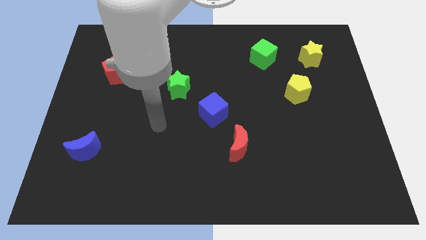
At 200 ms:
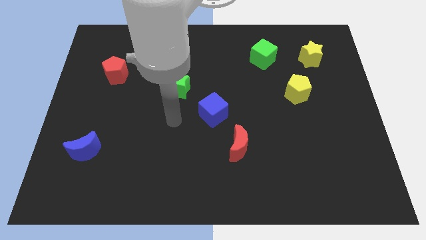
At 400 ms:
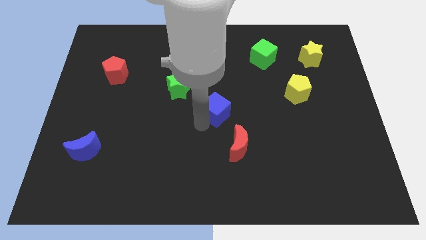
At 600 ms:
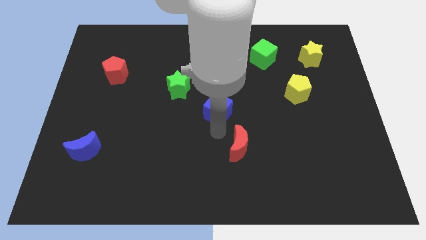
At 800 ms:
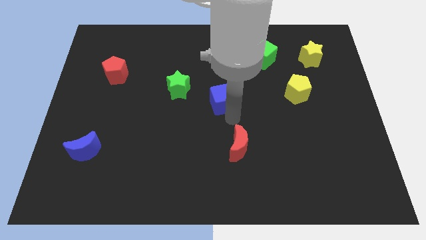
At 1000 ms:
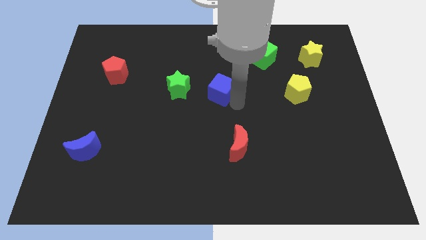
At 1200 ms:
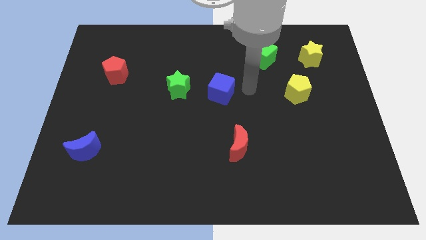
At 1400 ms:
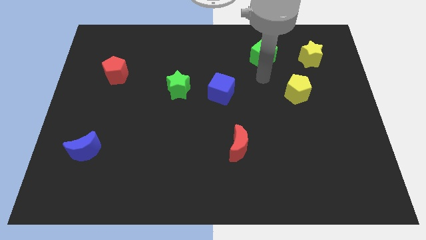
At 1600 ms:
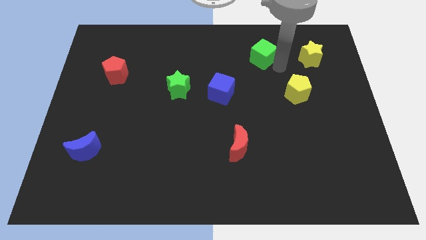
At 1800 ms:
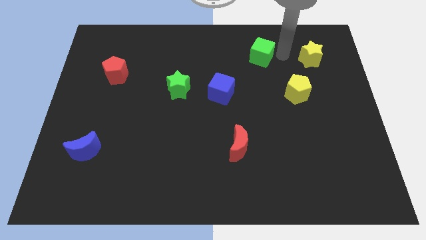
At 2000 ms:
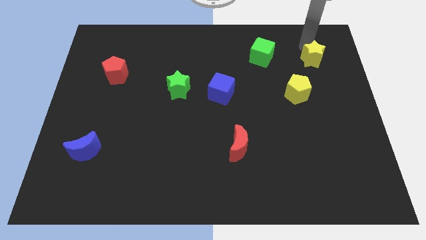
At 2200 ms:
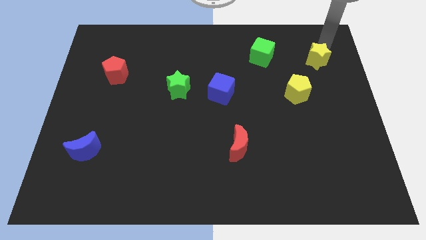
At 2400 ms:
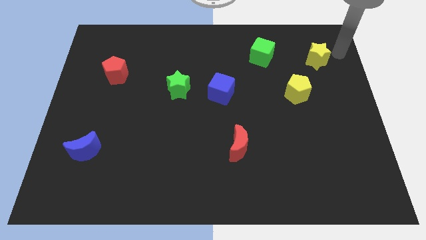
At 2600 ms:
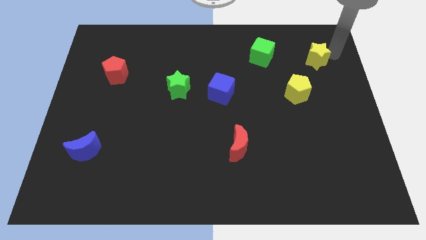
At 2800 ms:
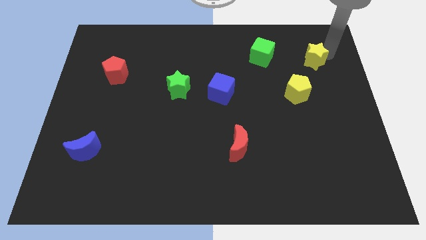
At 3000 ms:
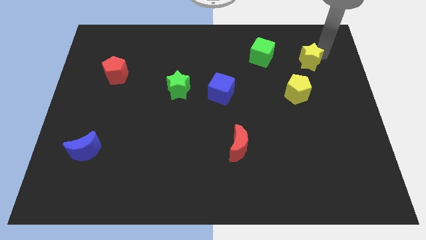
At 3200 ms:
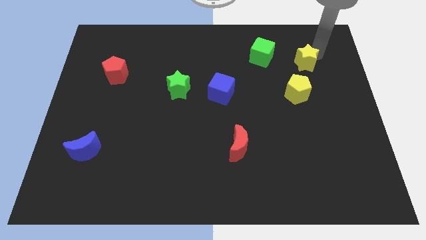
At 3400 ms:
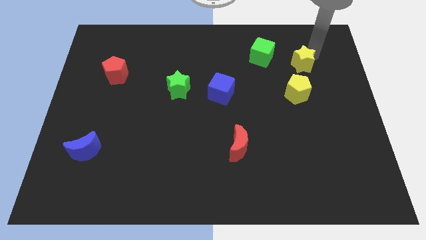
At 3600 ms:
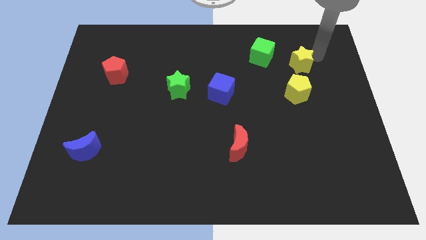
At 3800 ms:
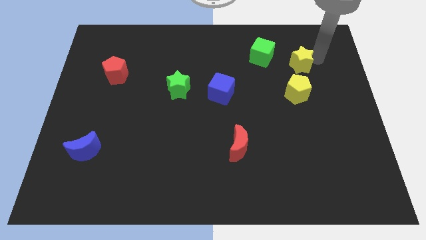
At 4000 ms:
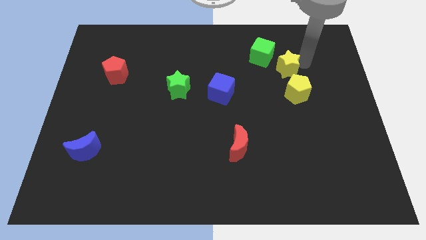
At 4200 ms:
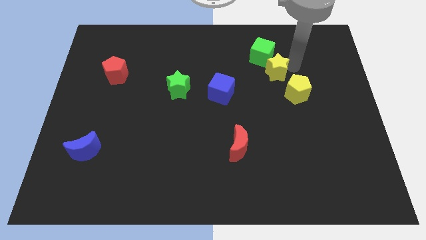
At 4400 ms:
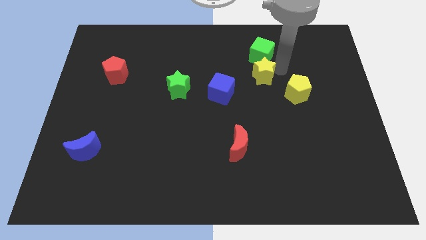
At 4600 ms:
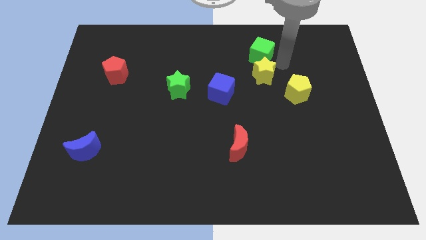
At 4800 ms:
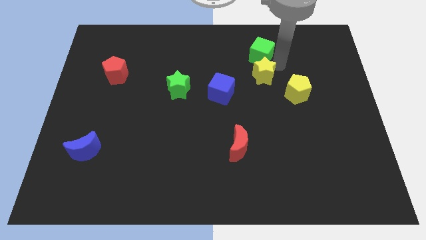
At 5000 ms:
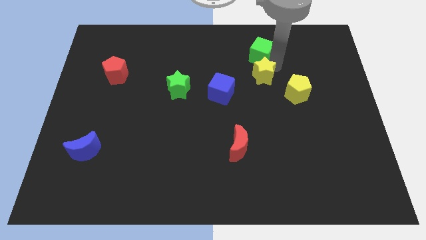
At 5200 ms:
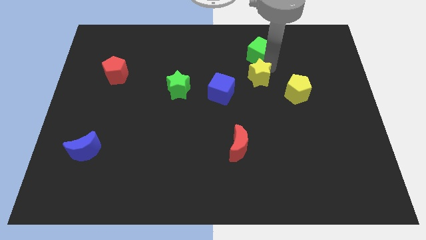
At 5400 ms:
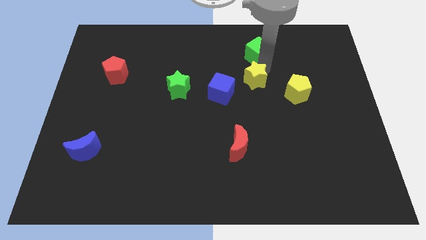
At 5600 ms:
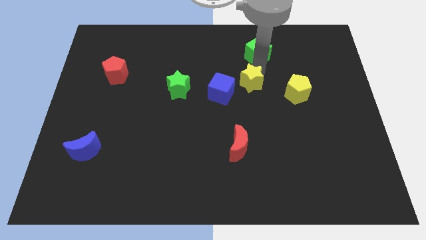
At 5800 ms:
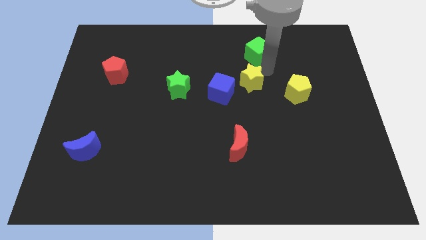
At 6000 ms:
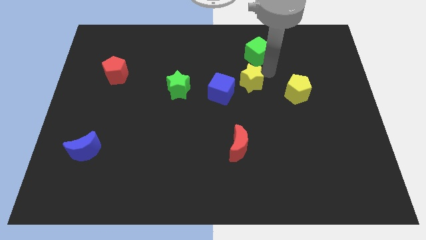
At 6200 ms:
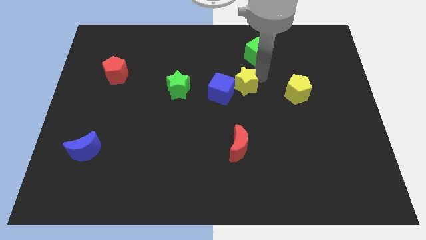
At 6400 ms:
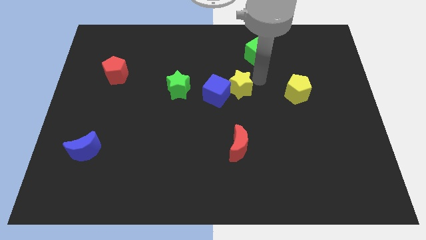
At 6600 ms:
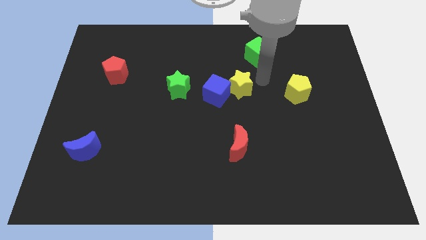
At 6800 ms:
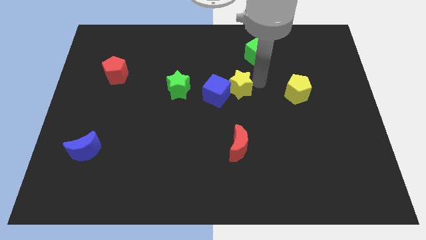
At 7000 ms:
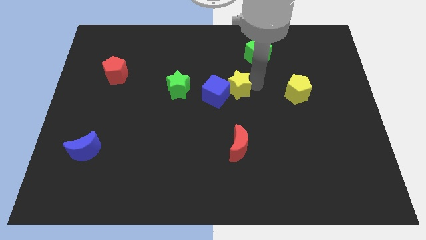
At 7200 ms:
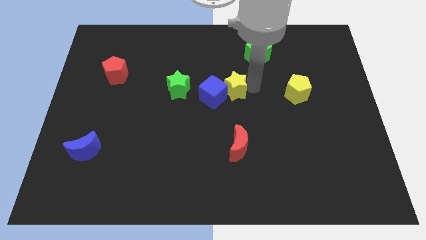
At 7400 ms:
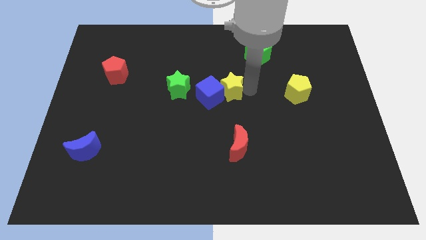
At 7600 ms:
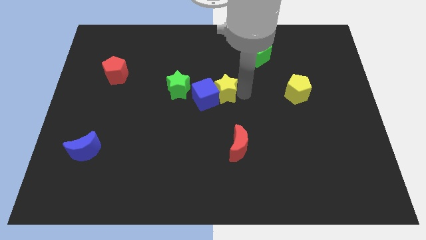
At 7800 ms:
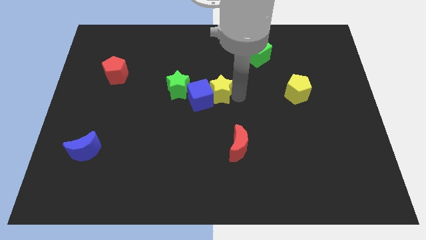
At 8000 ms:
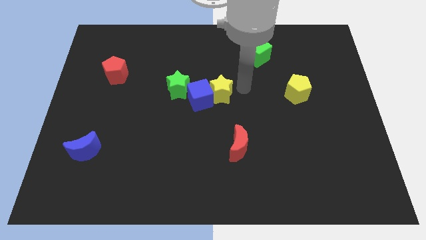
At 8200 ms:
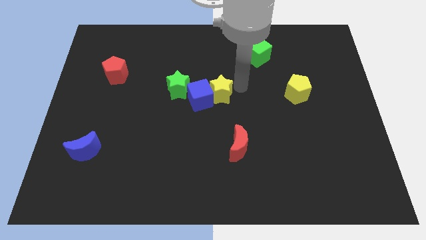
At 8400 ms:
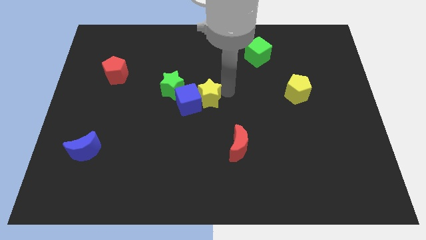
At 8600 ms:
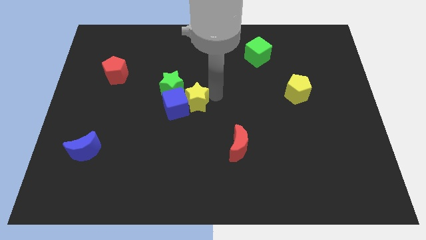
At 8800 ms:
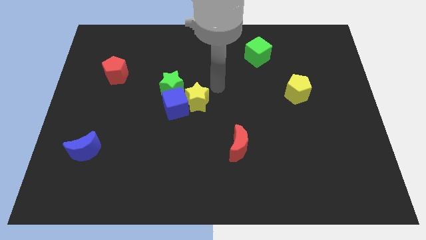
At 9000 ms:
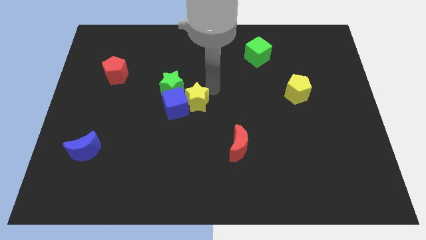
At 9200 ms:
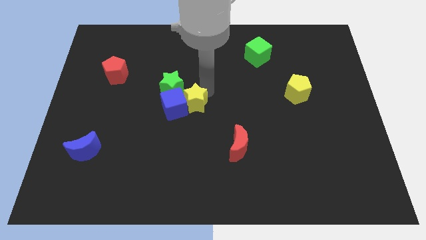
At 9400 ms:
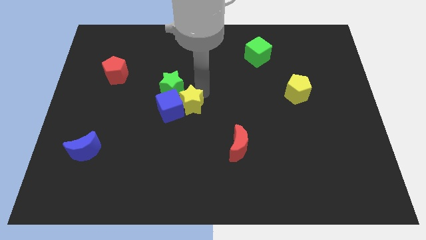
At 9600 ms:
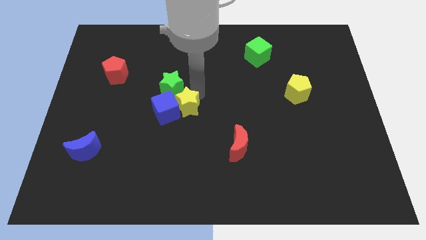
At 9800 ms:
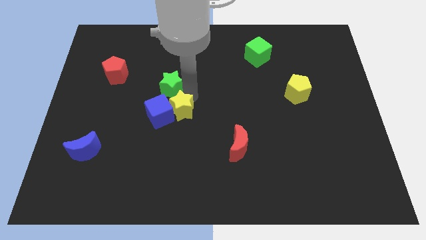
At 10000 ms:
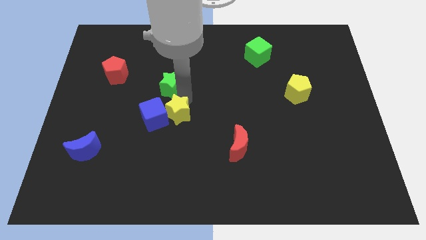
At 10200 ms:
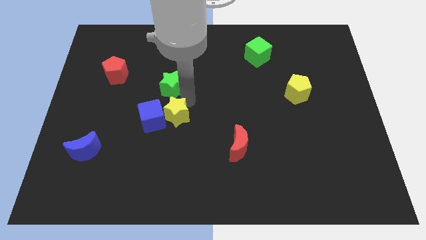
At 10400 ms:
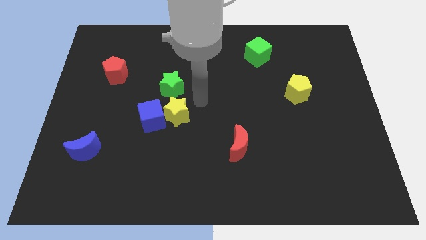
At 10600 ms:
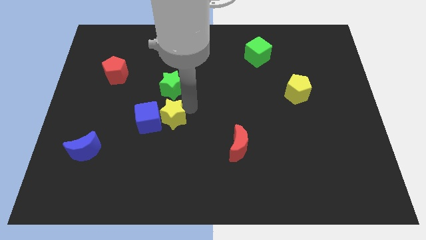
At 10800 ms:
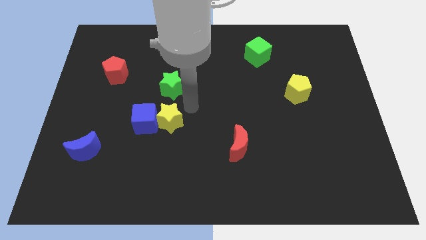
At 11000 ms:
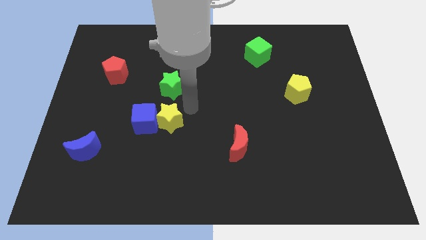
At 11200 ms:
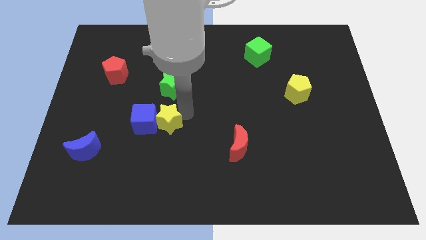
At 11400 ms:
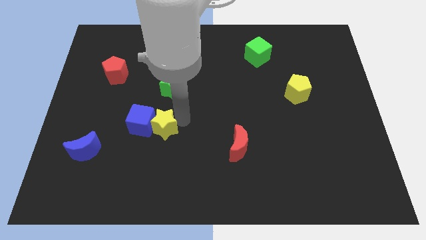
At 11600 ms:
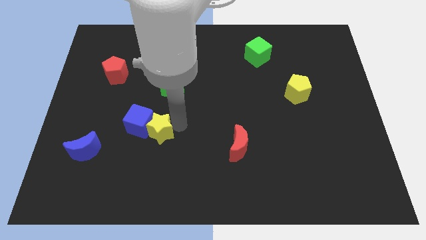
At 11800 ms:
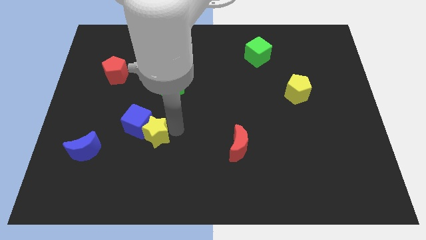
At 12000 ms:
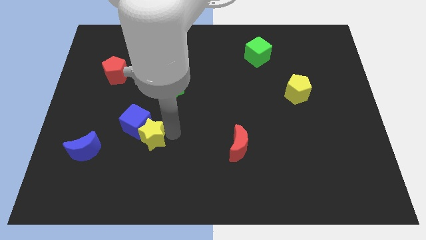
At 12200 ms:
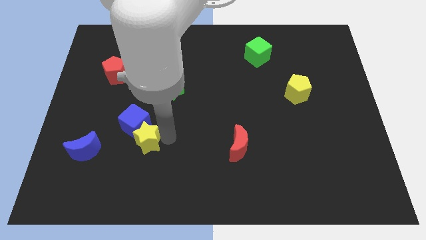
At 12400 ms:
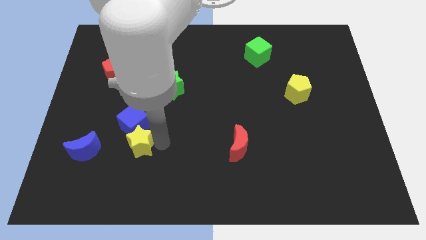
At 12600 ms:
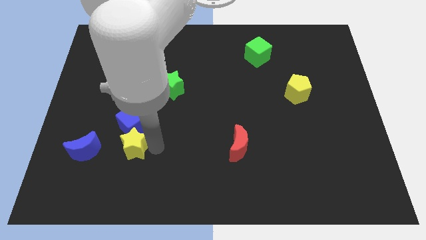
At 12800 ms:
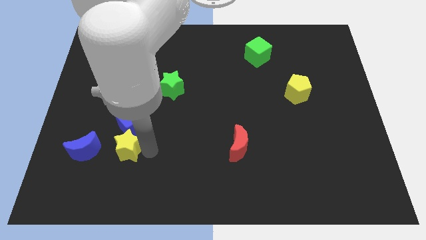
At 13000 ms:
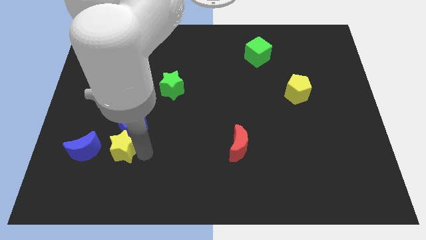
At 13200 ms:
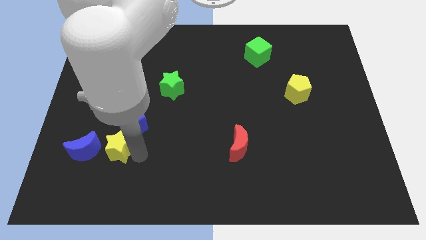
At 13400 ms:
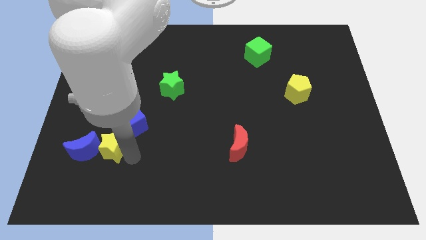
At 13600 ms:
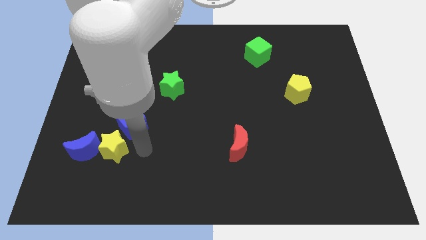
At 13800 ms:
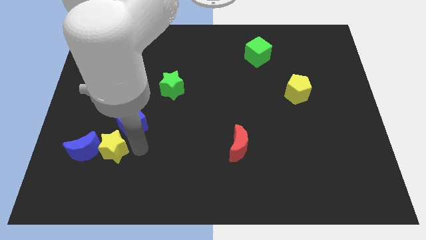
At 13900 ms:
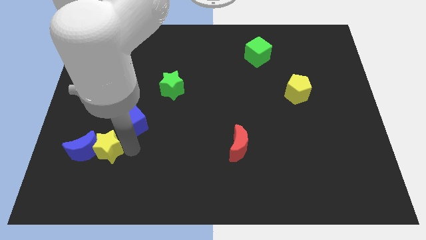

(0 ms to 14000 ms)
move the yellow star next to the blue moon
